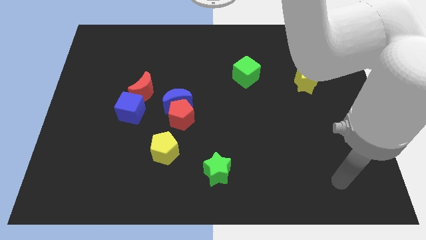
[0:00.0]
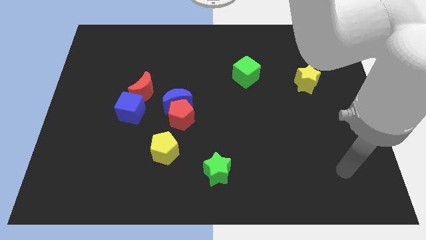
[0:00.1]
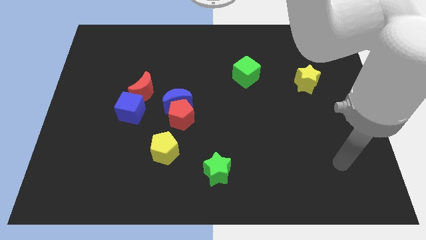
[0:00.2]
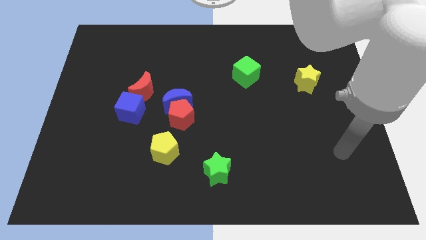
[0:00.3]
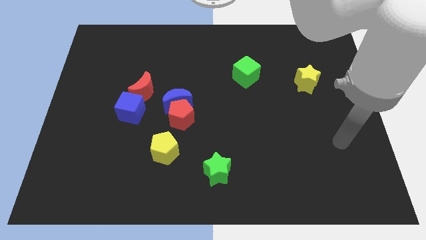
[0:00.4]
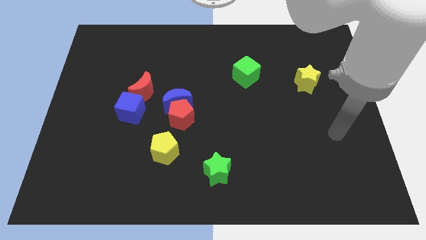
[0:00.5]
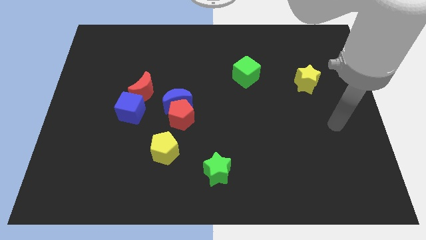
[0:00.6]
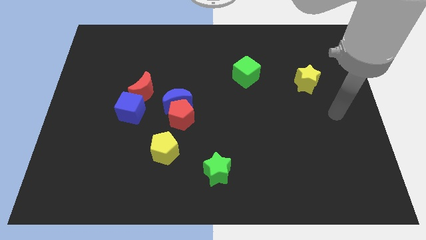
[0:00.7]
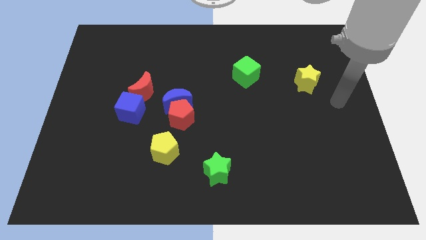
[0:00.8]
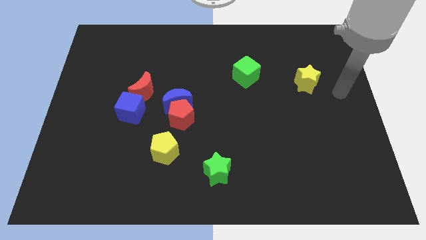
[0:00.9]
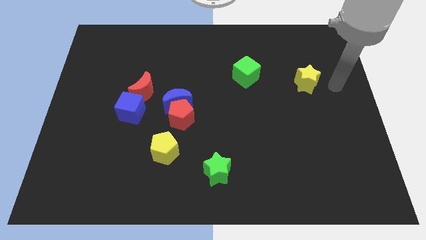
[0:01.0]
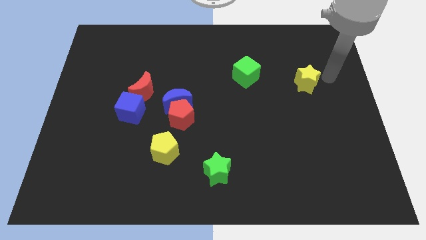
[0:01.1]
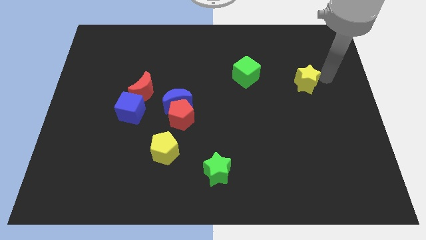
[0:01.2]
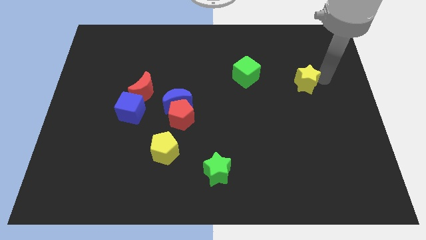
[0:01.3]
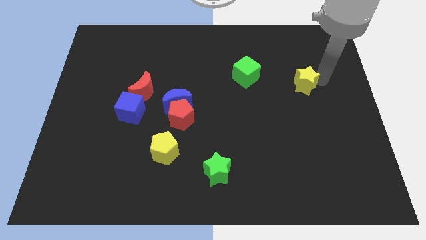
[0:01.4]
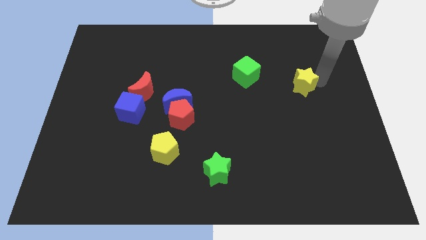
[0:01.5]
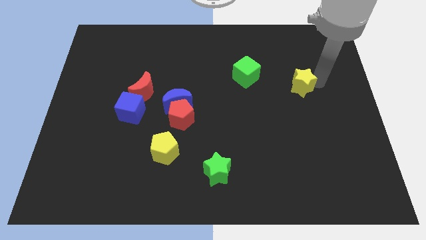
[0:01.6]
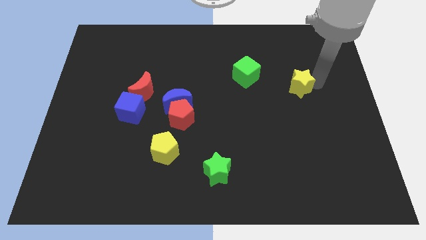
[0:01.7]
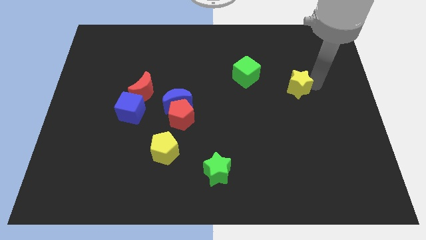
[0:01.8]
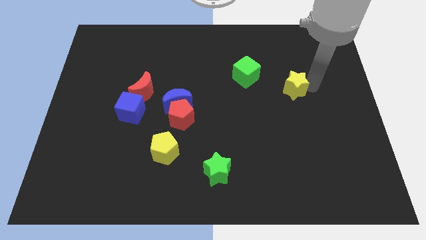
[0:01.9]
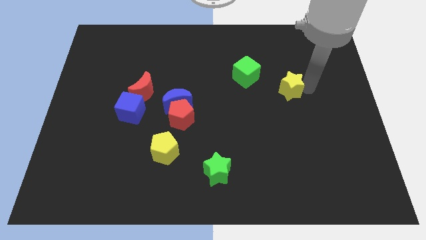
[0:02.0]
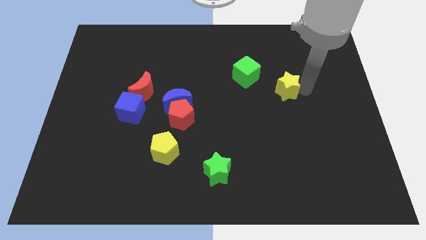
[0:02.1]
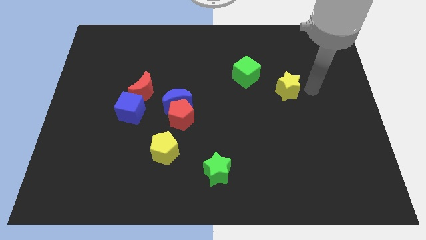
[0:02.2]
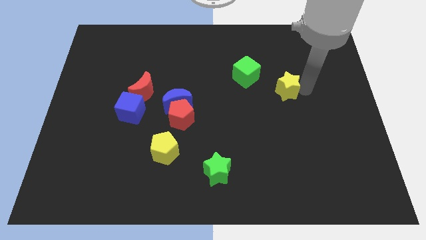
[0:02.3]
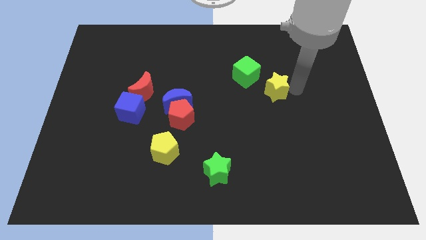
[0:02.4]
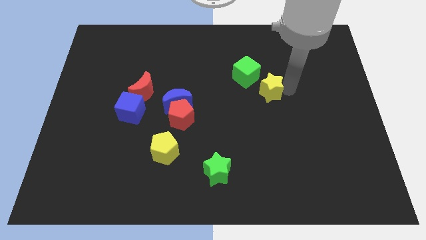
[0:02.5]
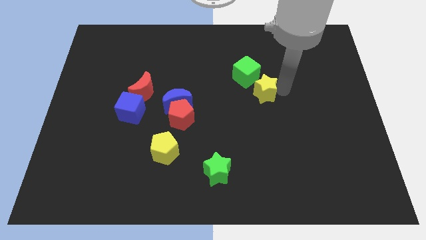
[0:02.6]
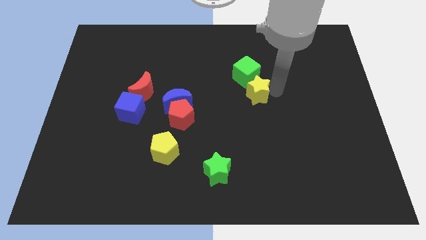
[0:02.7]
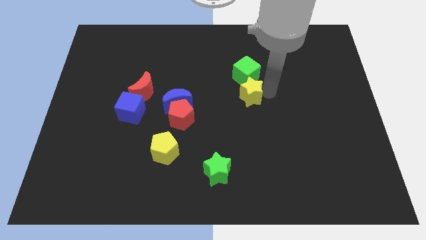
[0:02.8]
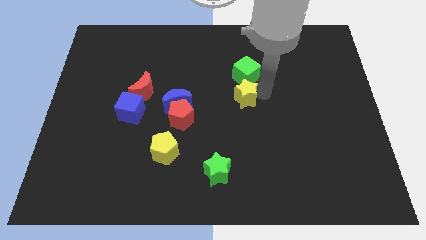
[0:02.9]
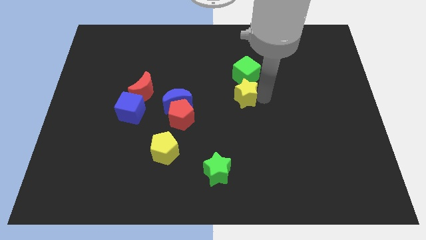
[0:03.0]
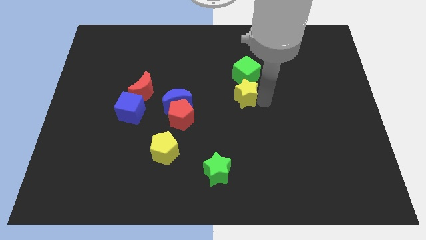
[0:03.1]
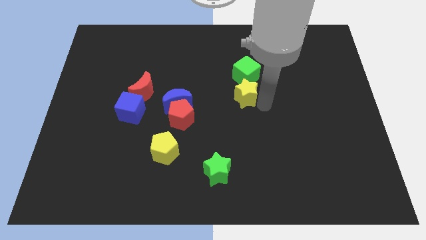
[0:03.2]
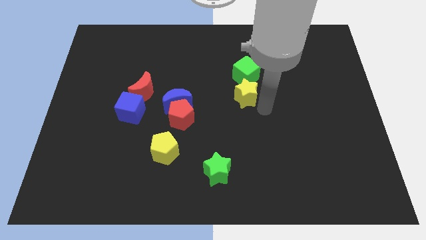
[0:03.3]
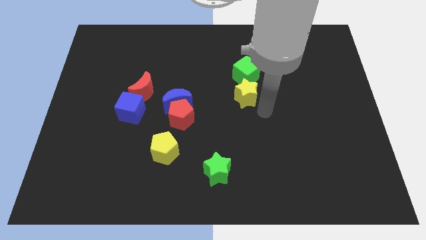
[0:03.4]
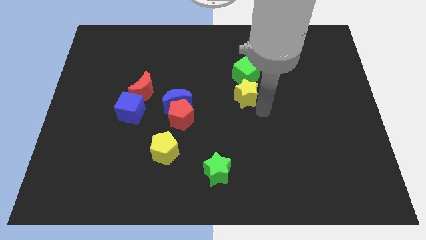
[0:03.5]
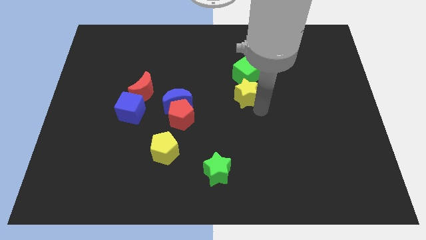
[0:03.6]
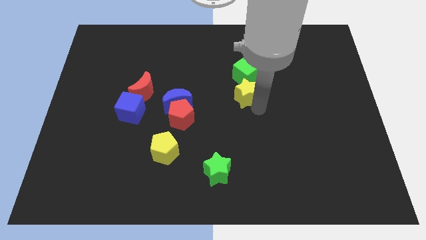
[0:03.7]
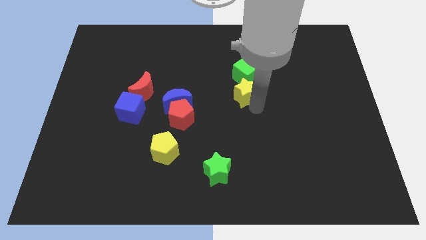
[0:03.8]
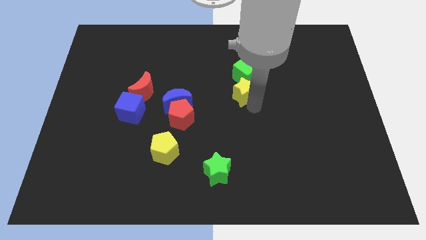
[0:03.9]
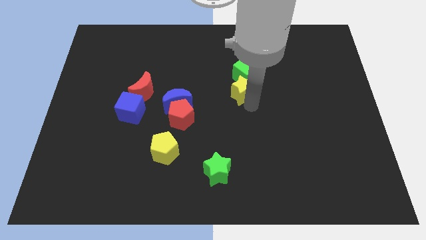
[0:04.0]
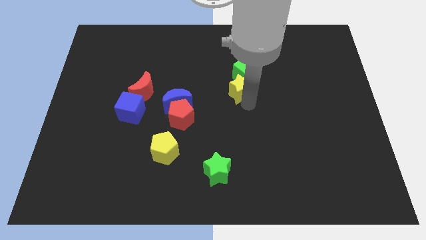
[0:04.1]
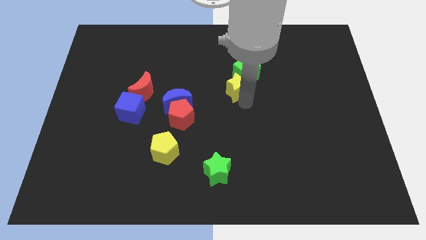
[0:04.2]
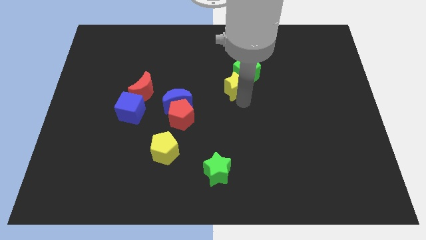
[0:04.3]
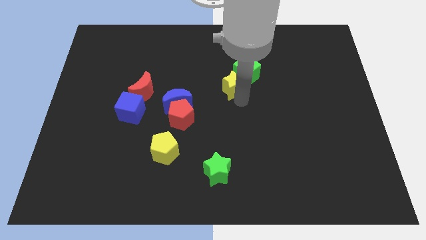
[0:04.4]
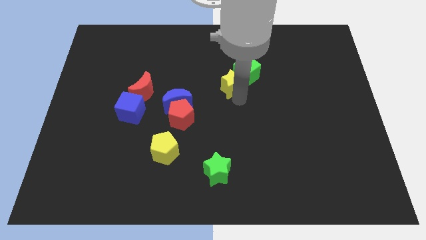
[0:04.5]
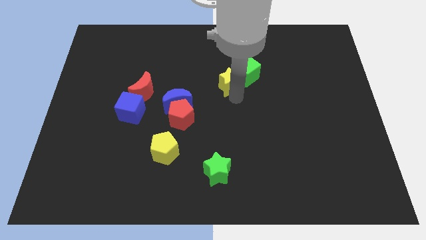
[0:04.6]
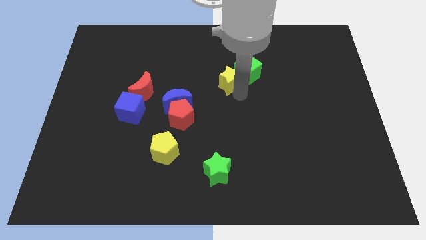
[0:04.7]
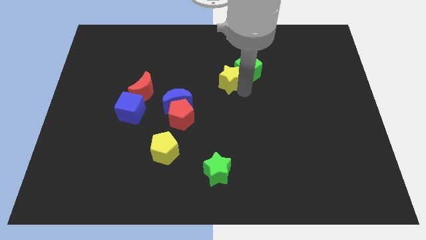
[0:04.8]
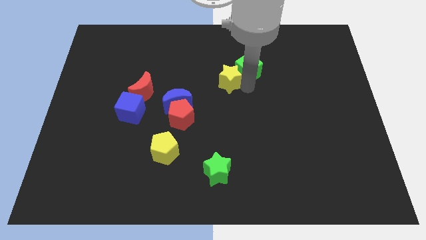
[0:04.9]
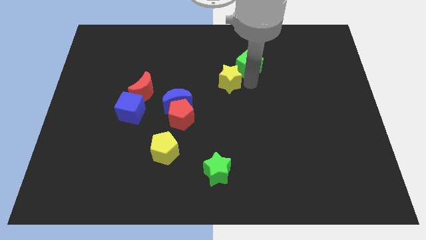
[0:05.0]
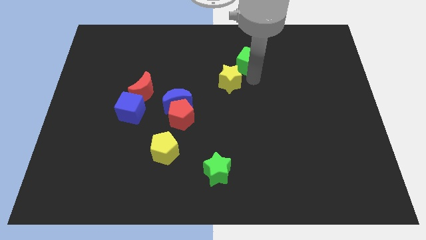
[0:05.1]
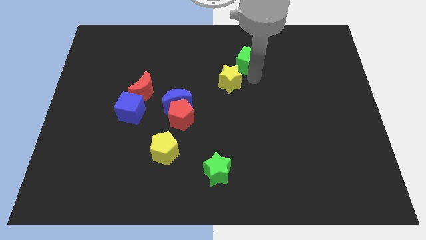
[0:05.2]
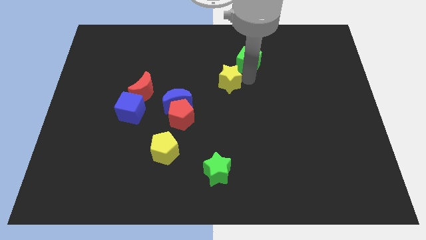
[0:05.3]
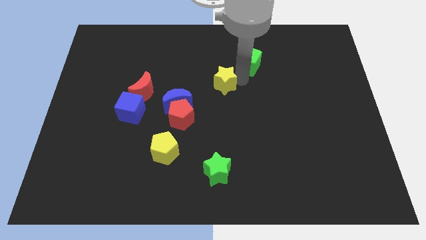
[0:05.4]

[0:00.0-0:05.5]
slide the yellow star left

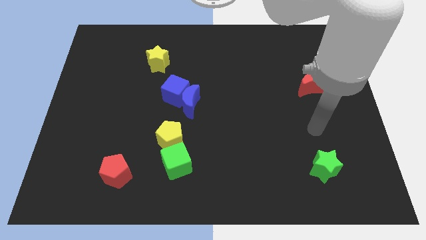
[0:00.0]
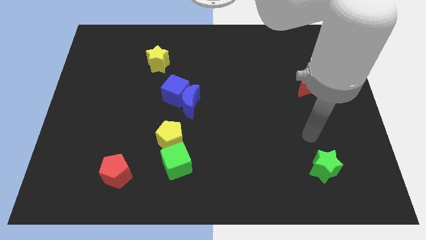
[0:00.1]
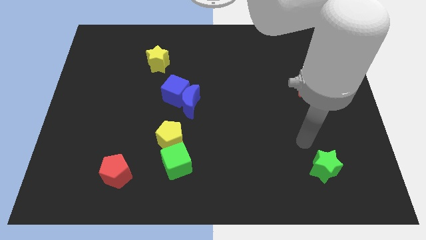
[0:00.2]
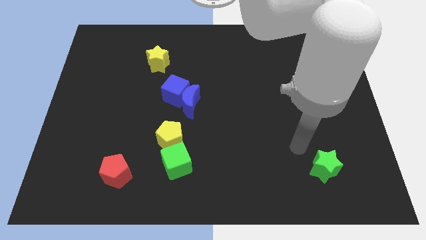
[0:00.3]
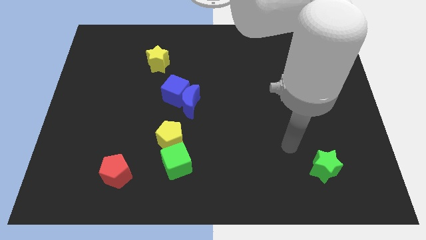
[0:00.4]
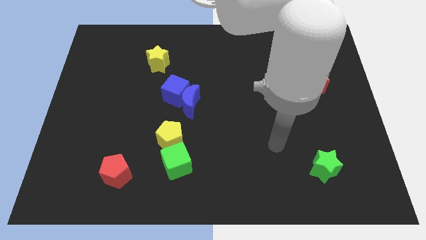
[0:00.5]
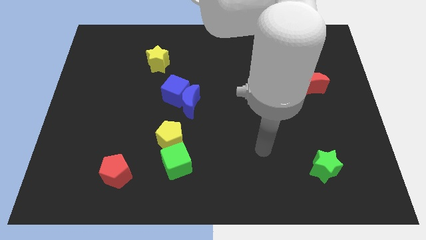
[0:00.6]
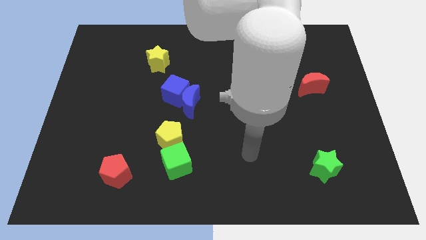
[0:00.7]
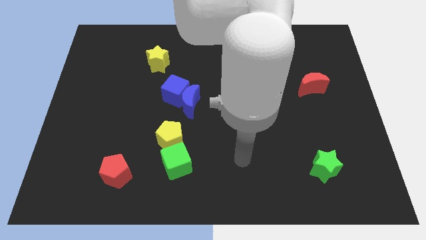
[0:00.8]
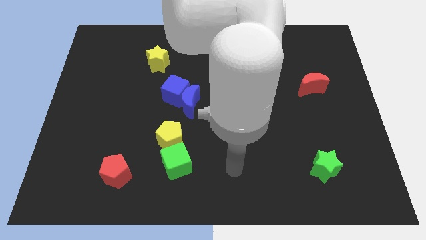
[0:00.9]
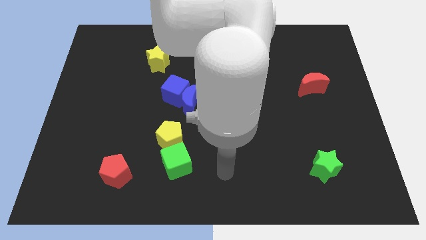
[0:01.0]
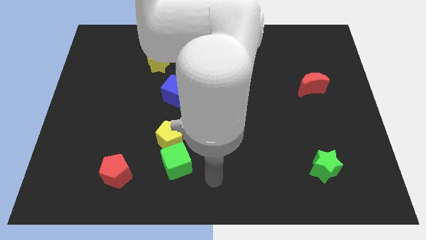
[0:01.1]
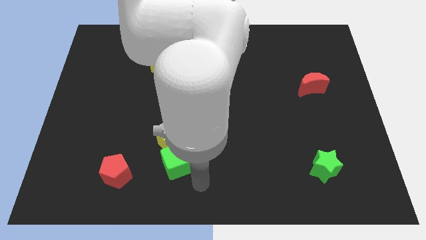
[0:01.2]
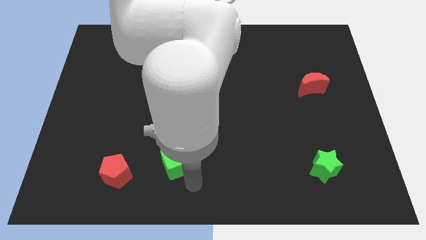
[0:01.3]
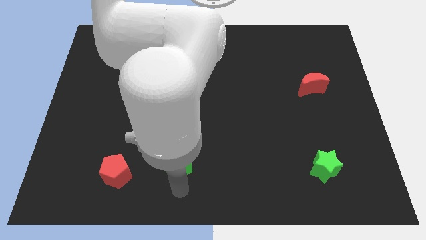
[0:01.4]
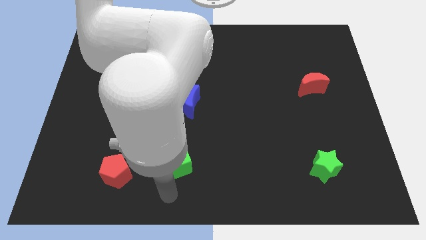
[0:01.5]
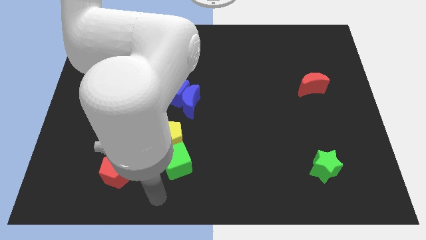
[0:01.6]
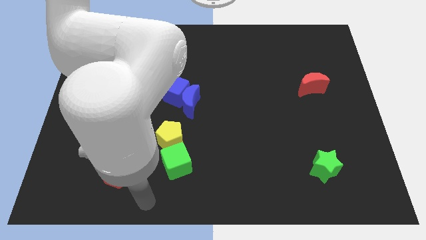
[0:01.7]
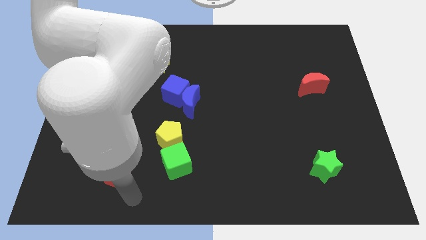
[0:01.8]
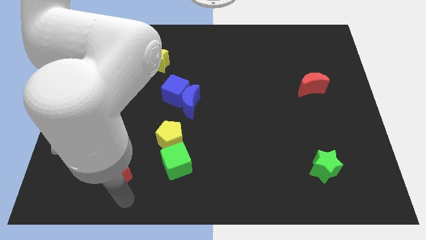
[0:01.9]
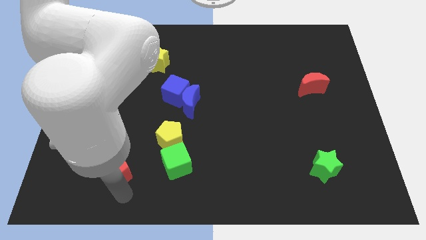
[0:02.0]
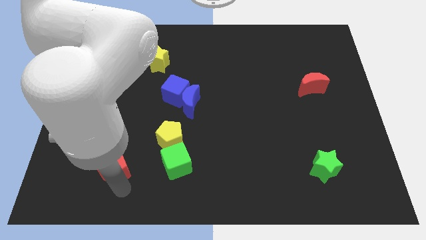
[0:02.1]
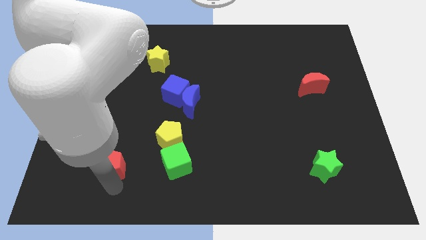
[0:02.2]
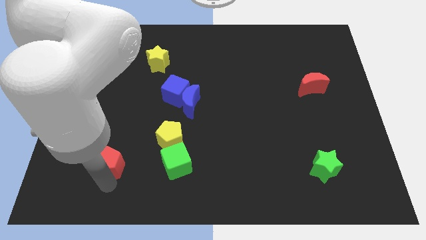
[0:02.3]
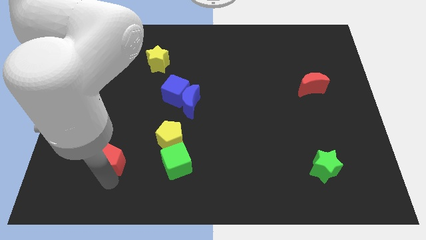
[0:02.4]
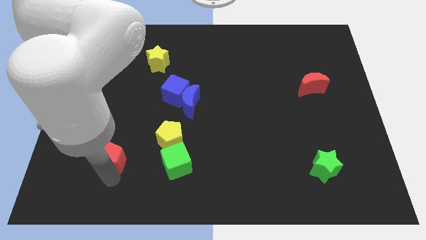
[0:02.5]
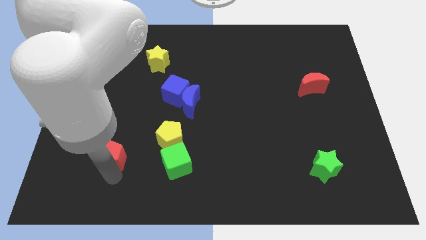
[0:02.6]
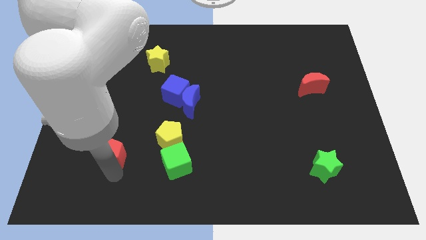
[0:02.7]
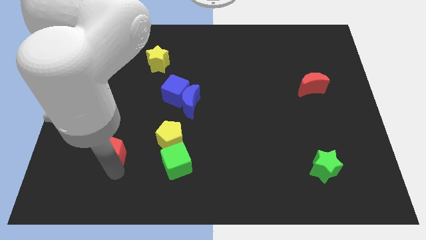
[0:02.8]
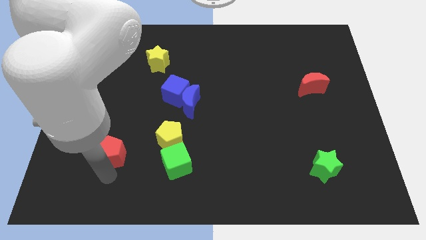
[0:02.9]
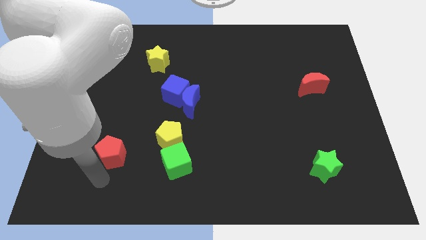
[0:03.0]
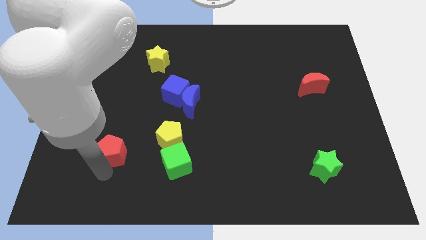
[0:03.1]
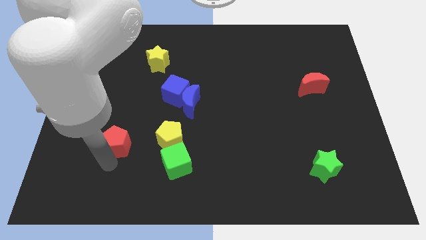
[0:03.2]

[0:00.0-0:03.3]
slide the red pentagon up somewhat
